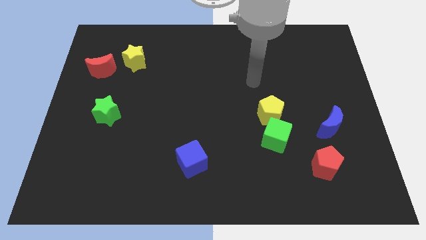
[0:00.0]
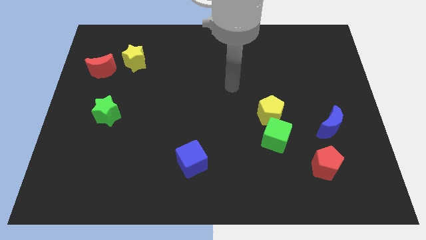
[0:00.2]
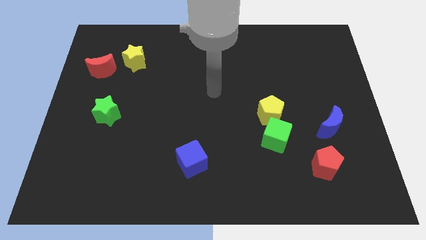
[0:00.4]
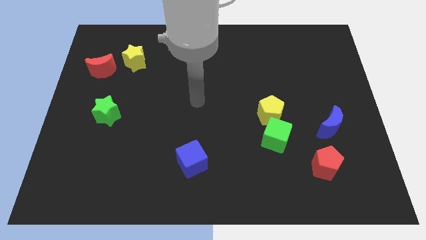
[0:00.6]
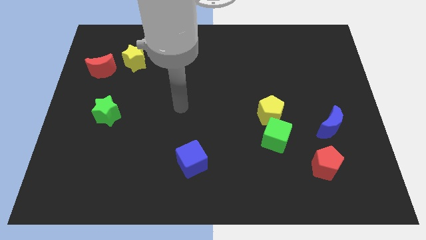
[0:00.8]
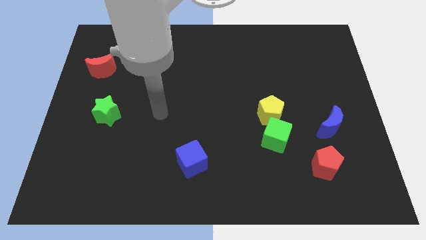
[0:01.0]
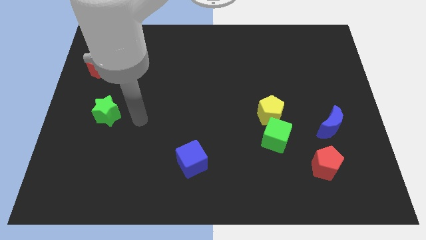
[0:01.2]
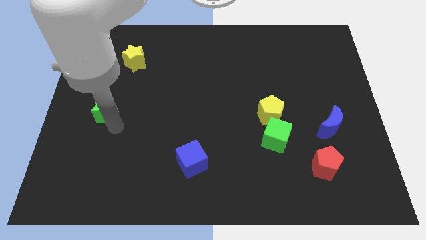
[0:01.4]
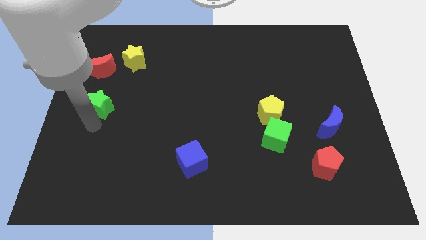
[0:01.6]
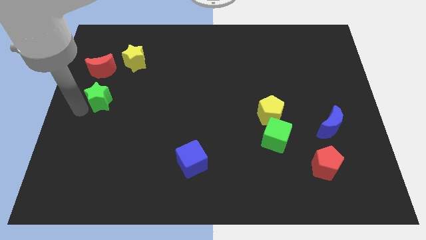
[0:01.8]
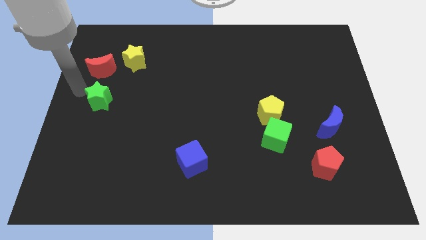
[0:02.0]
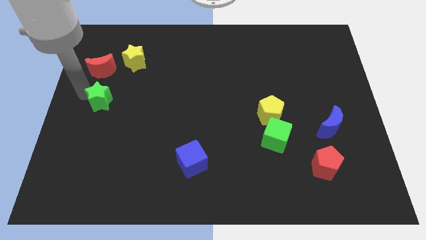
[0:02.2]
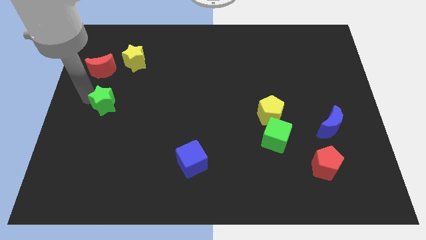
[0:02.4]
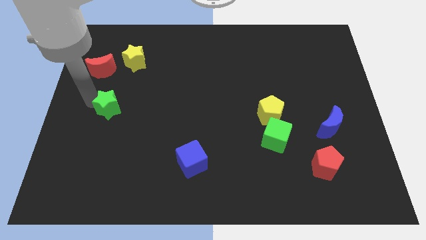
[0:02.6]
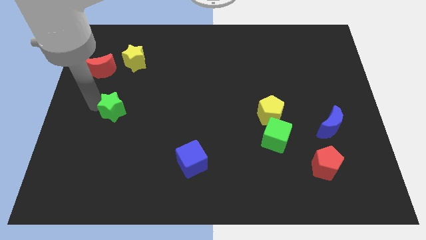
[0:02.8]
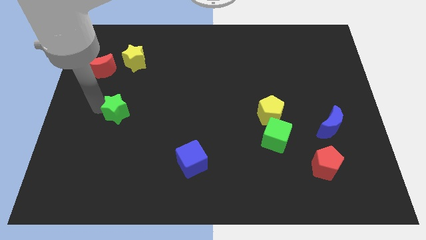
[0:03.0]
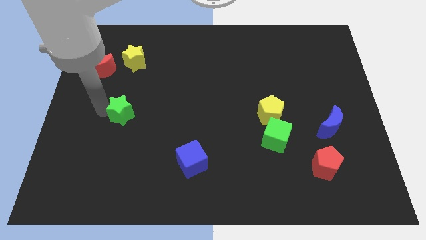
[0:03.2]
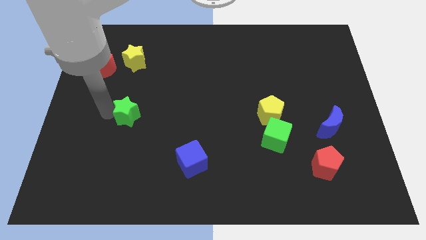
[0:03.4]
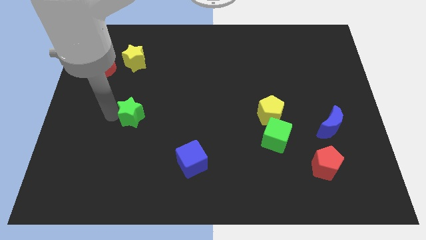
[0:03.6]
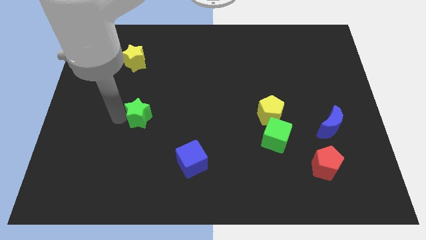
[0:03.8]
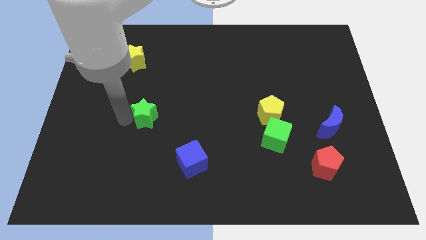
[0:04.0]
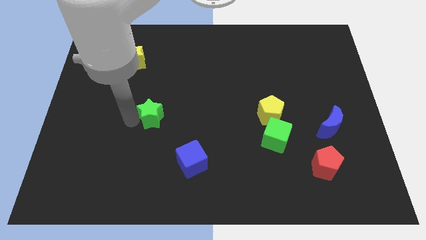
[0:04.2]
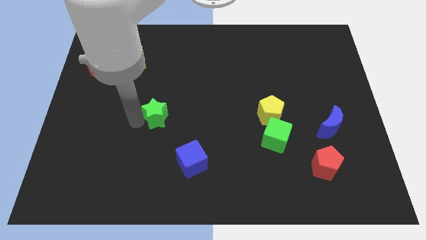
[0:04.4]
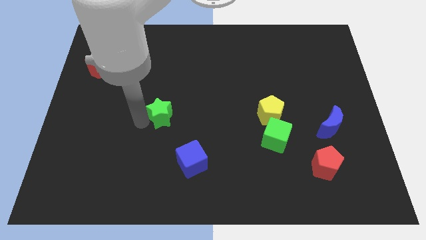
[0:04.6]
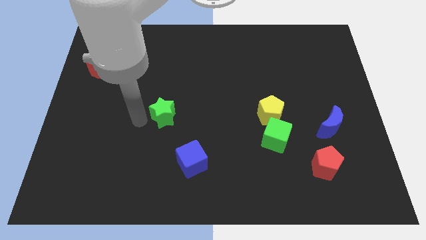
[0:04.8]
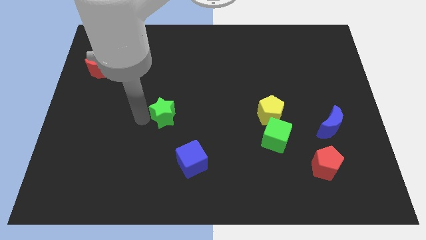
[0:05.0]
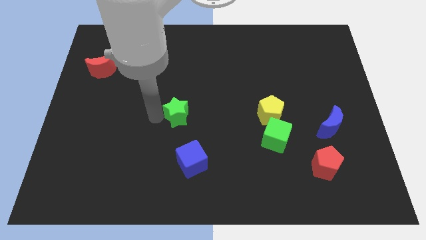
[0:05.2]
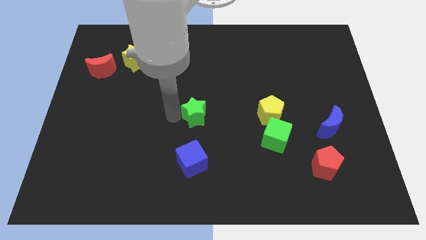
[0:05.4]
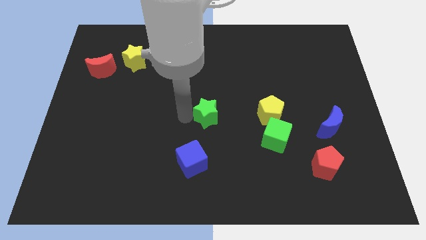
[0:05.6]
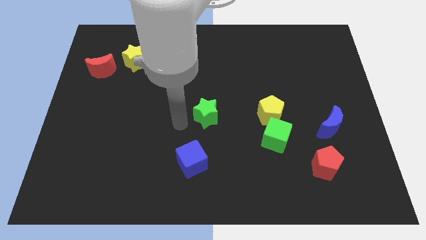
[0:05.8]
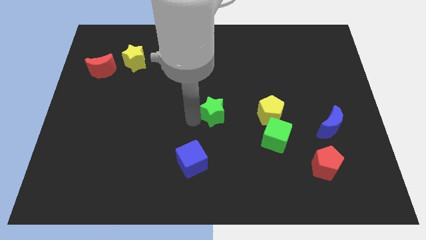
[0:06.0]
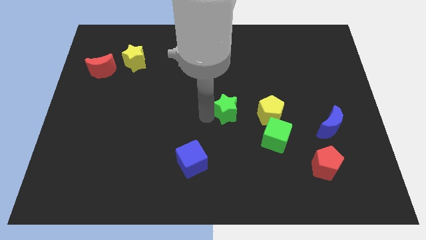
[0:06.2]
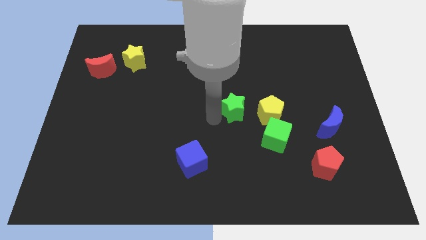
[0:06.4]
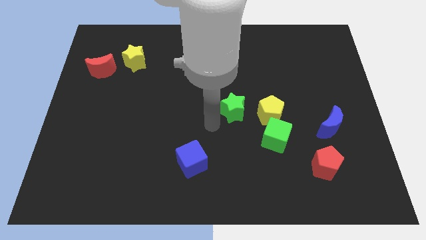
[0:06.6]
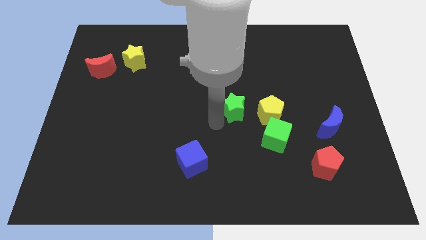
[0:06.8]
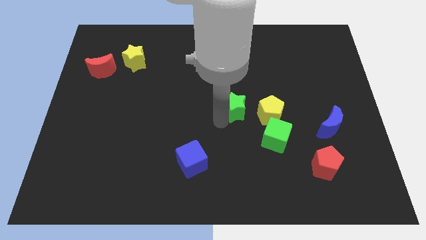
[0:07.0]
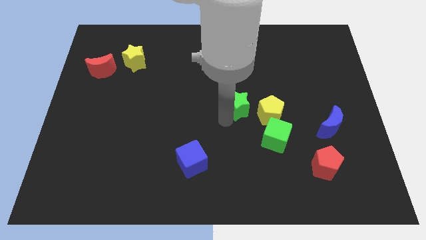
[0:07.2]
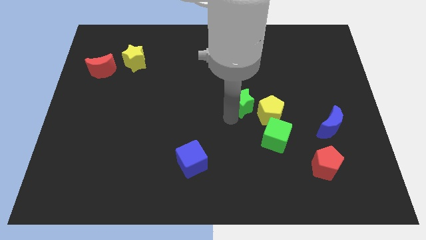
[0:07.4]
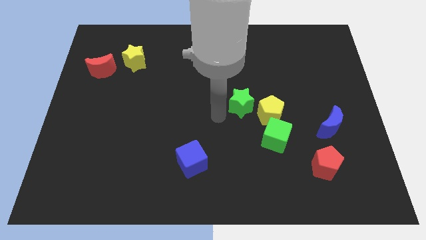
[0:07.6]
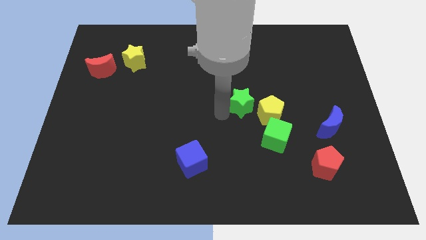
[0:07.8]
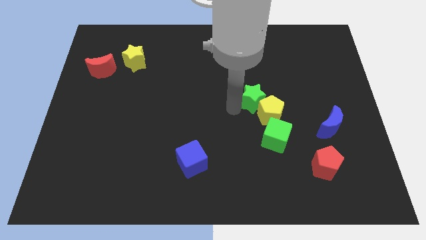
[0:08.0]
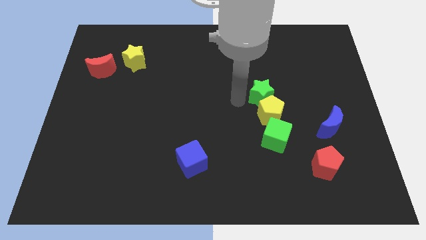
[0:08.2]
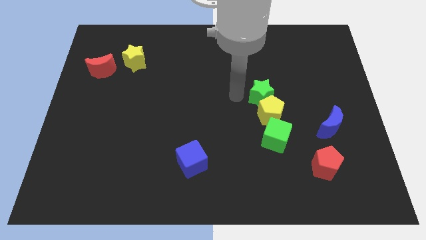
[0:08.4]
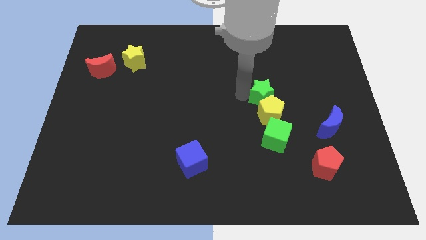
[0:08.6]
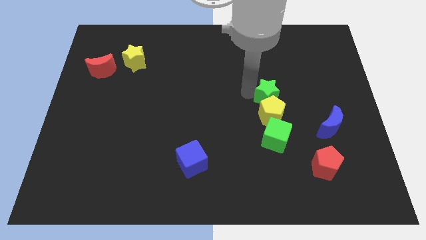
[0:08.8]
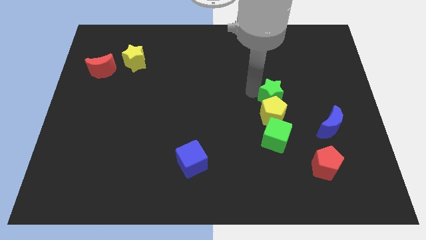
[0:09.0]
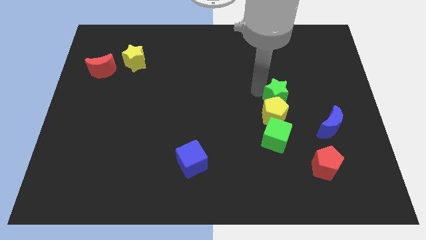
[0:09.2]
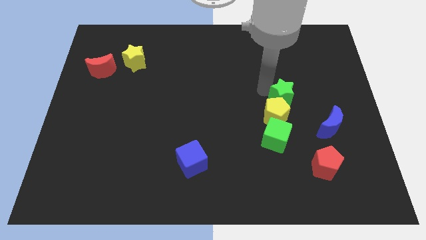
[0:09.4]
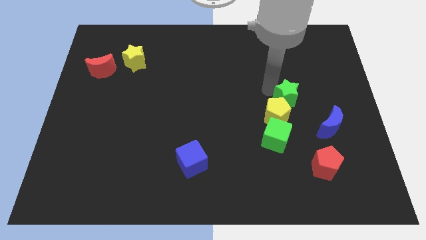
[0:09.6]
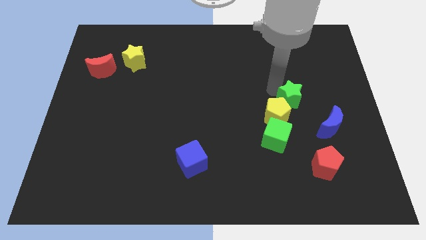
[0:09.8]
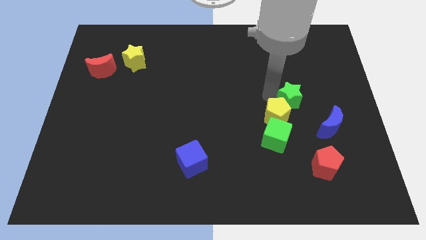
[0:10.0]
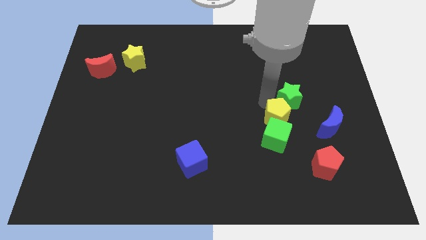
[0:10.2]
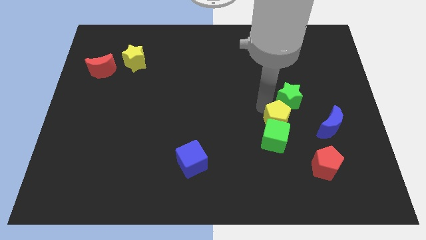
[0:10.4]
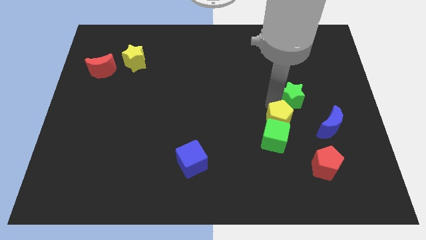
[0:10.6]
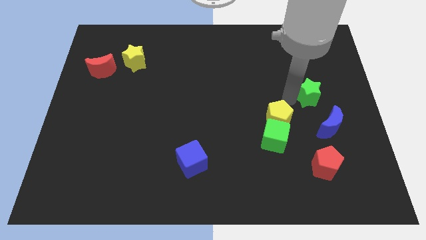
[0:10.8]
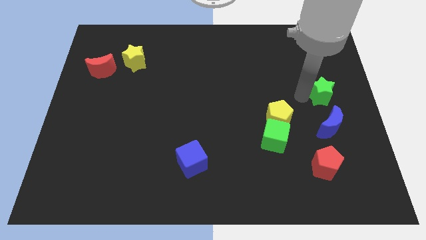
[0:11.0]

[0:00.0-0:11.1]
move the green star to the center right
